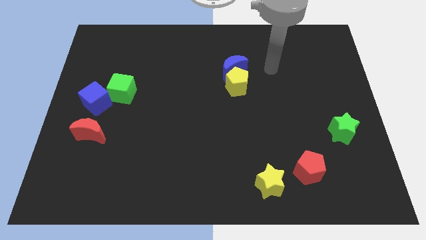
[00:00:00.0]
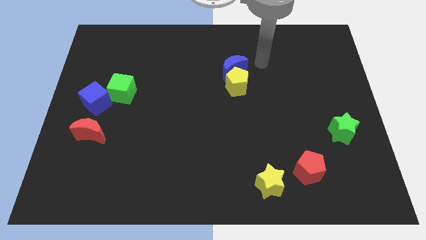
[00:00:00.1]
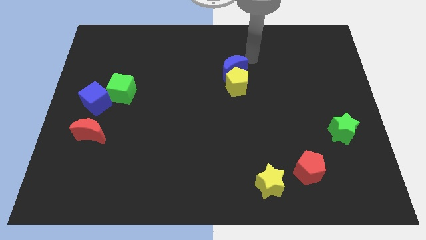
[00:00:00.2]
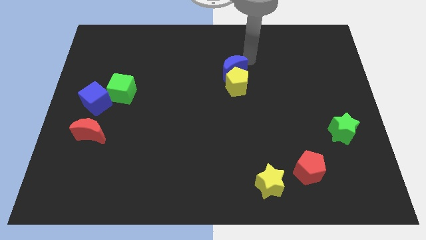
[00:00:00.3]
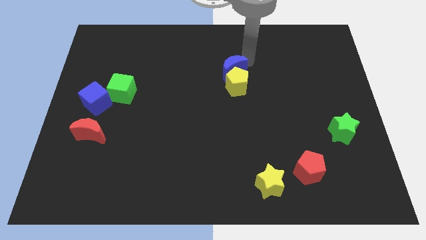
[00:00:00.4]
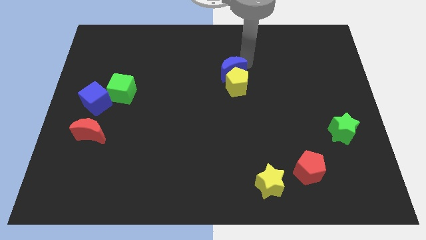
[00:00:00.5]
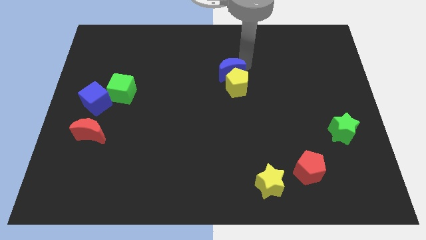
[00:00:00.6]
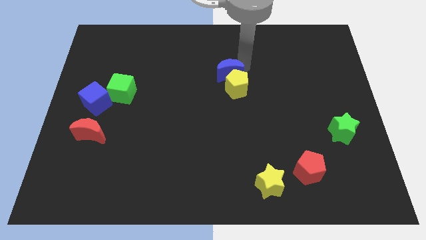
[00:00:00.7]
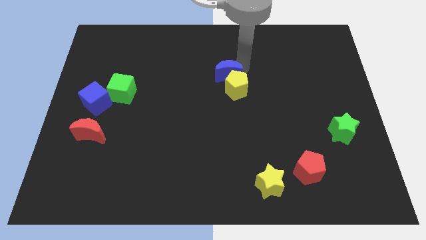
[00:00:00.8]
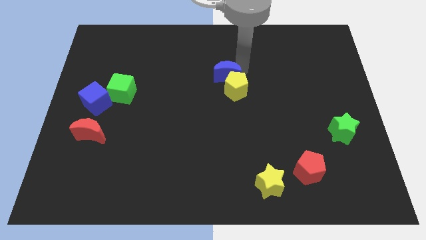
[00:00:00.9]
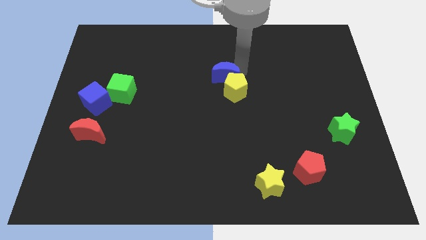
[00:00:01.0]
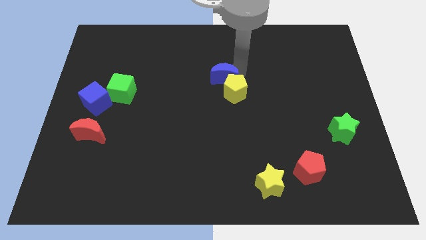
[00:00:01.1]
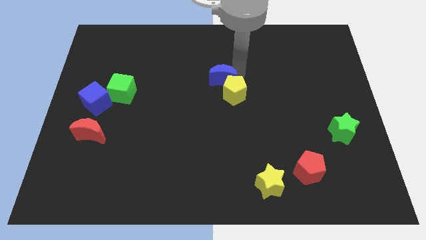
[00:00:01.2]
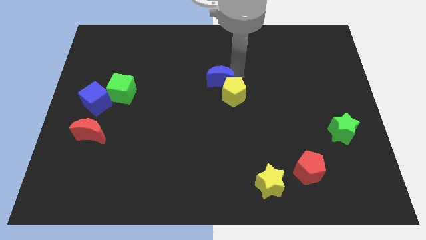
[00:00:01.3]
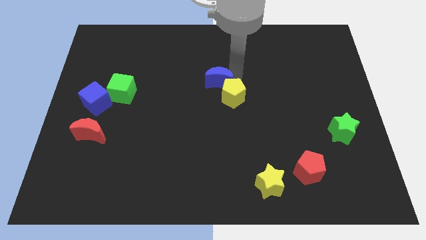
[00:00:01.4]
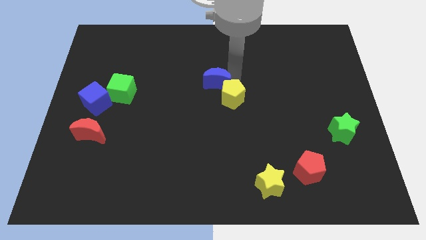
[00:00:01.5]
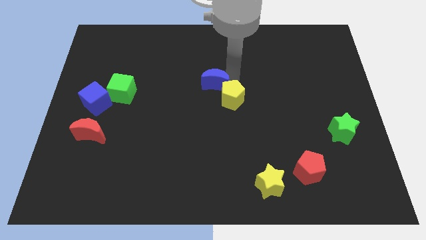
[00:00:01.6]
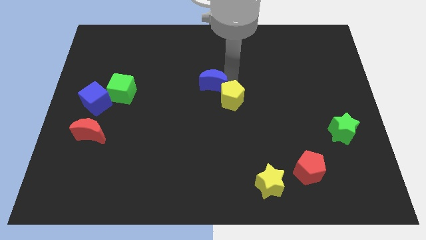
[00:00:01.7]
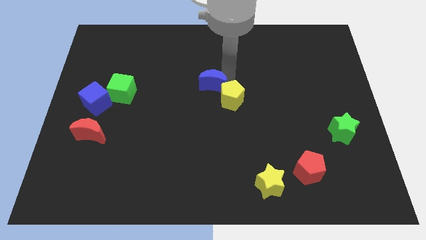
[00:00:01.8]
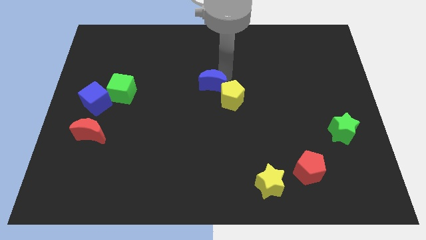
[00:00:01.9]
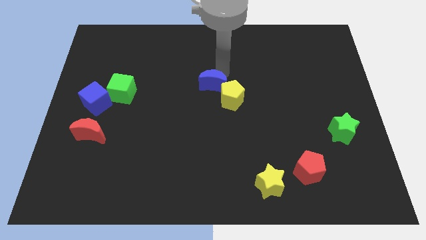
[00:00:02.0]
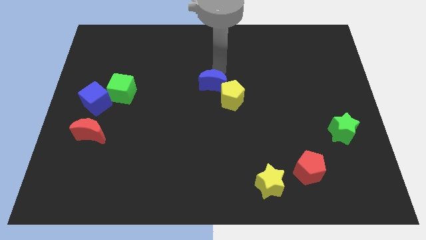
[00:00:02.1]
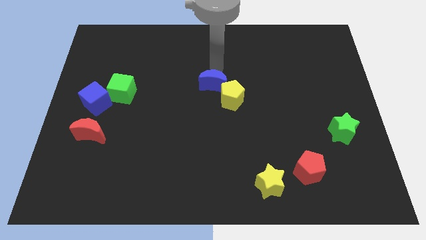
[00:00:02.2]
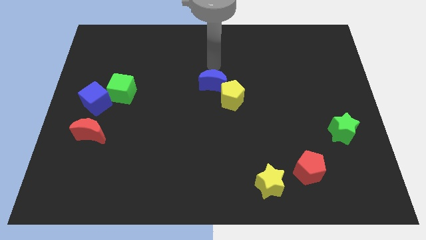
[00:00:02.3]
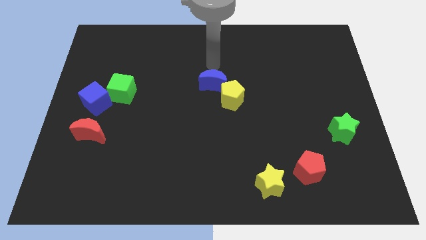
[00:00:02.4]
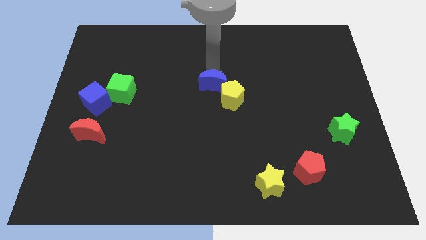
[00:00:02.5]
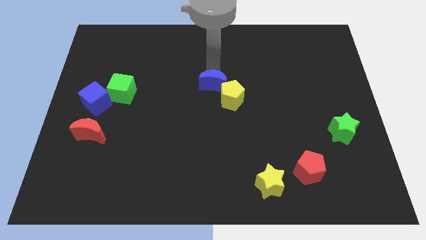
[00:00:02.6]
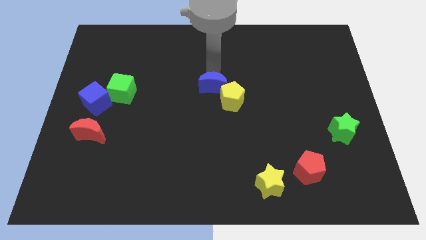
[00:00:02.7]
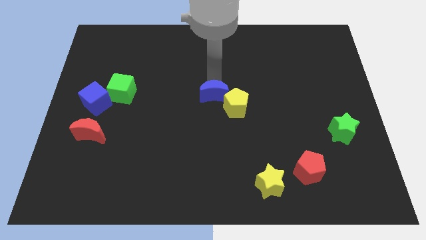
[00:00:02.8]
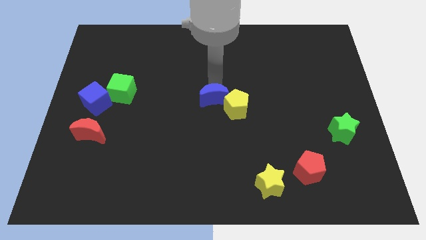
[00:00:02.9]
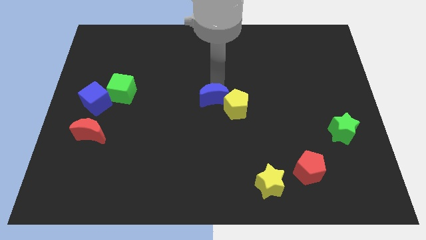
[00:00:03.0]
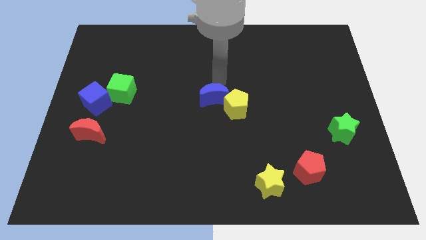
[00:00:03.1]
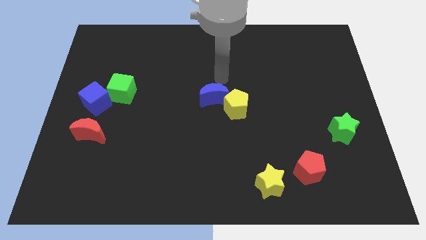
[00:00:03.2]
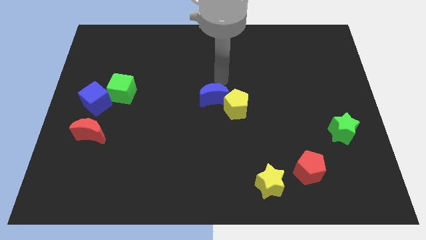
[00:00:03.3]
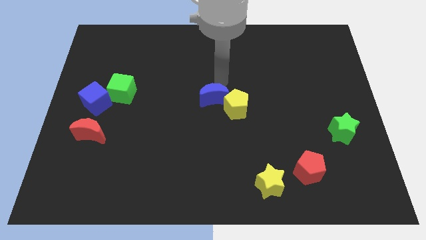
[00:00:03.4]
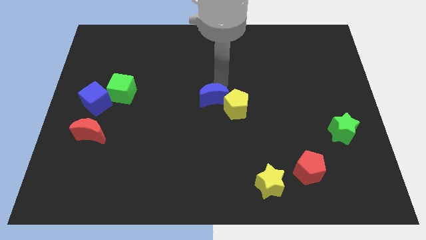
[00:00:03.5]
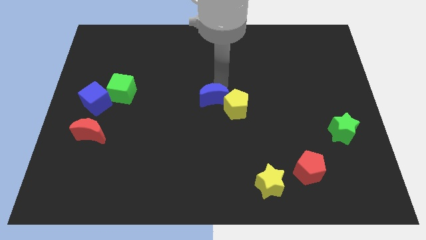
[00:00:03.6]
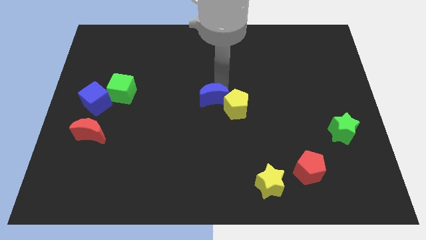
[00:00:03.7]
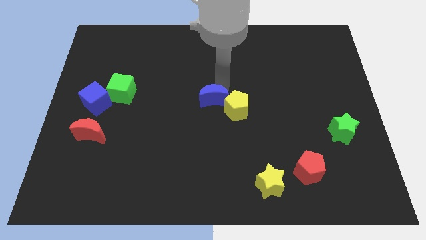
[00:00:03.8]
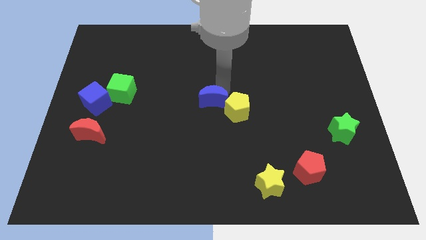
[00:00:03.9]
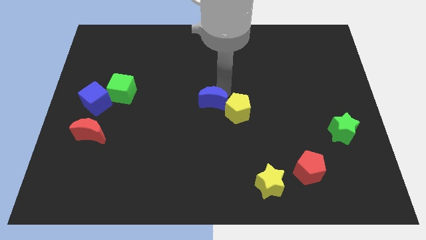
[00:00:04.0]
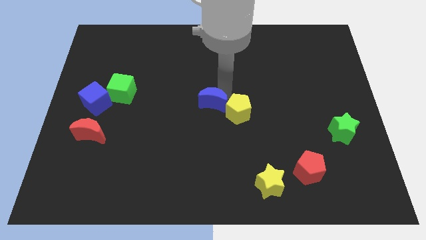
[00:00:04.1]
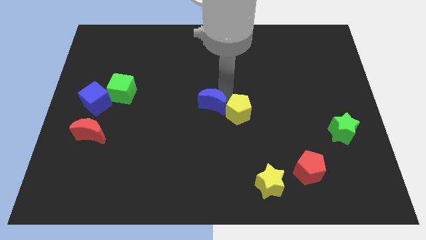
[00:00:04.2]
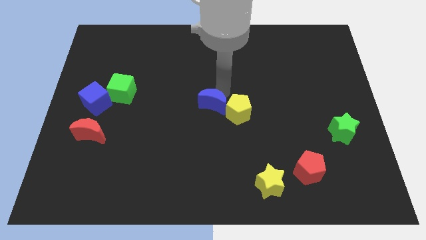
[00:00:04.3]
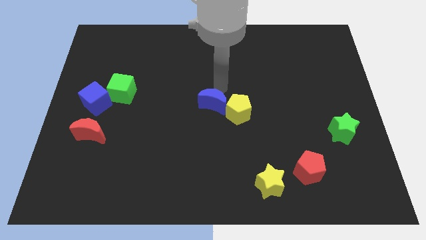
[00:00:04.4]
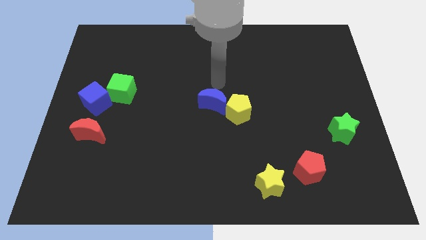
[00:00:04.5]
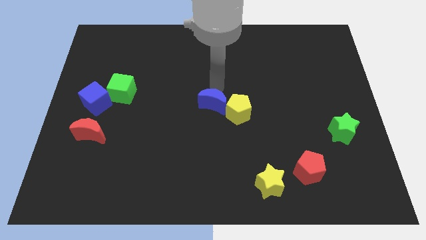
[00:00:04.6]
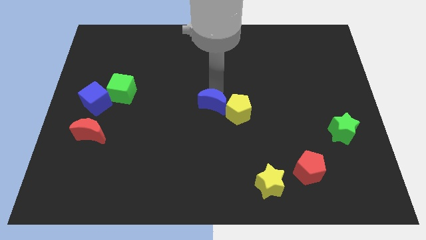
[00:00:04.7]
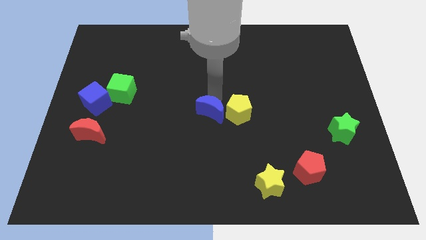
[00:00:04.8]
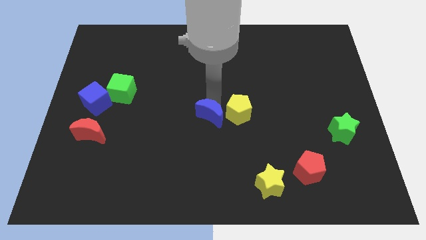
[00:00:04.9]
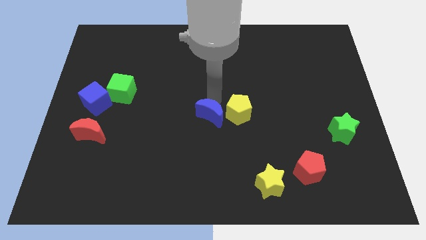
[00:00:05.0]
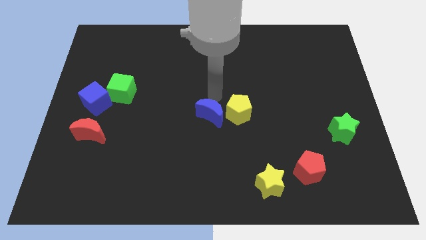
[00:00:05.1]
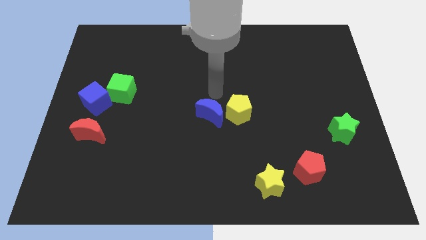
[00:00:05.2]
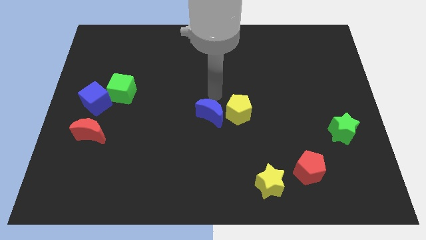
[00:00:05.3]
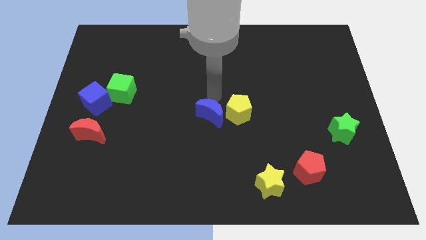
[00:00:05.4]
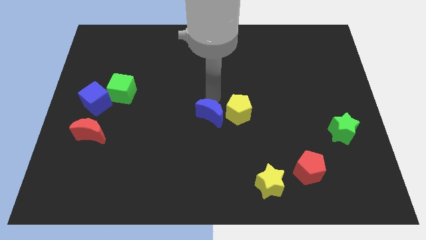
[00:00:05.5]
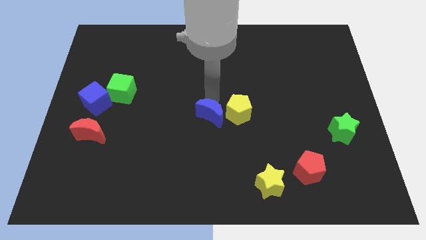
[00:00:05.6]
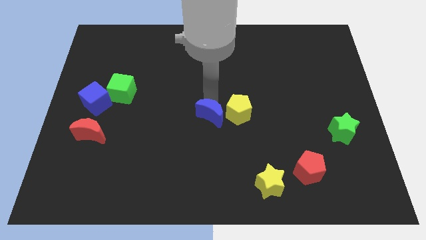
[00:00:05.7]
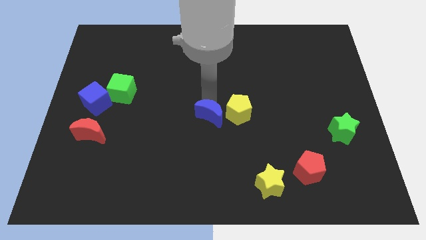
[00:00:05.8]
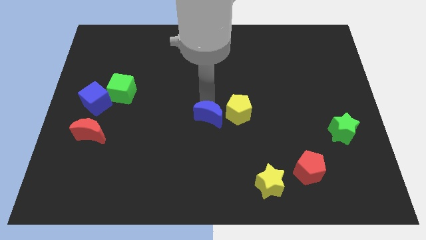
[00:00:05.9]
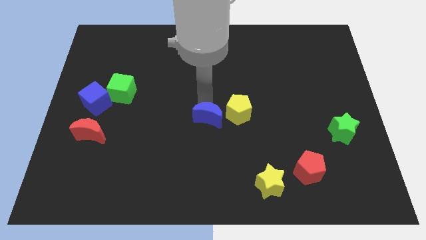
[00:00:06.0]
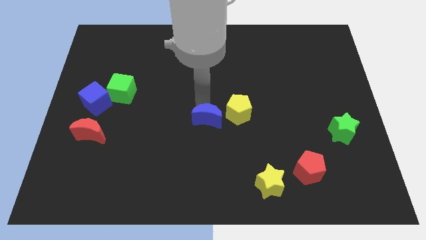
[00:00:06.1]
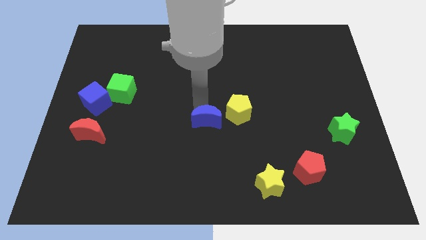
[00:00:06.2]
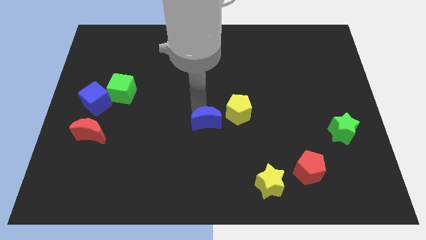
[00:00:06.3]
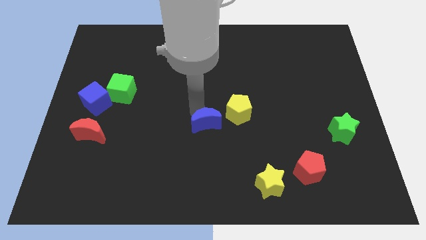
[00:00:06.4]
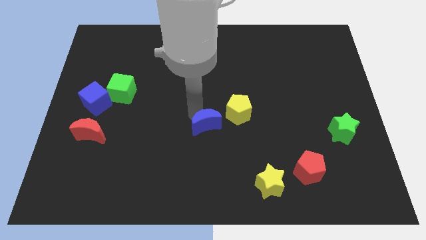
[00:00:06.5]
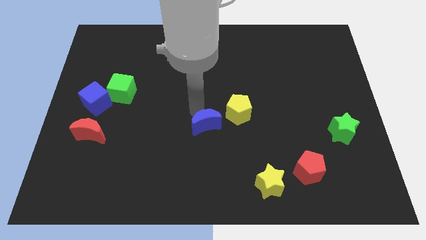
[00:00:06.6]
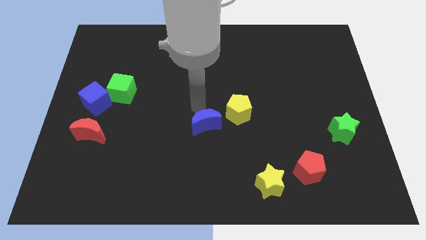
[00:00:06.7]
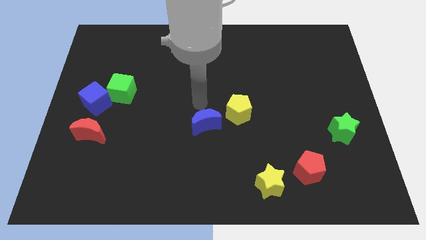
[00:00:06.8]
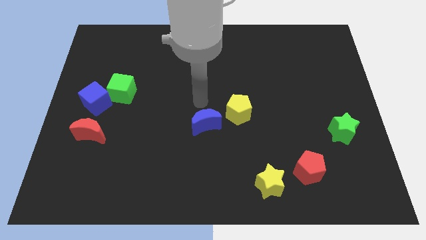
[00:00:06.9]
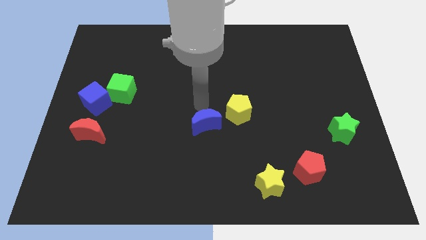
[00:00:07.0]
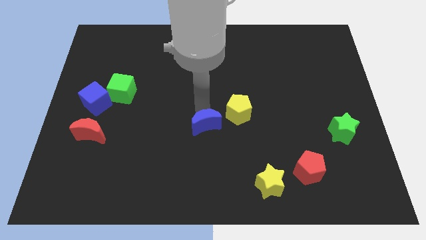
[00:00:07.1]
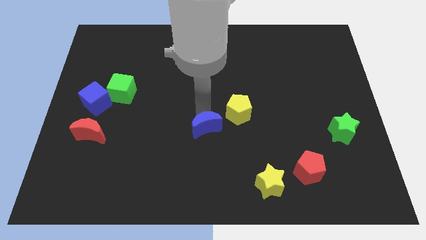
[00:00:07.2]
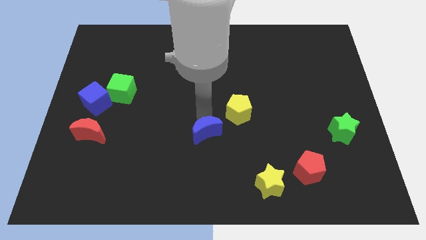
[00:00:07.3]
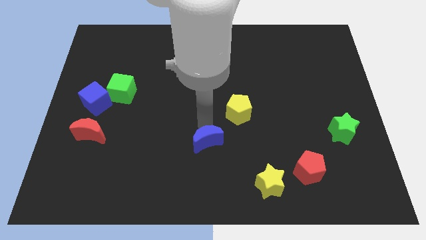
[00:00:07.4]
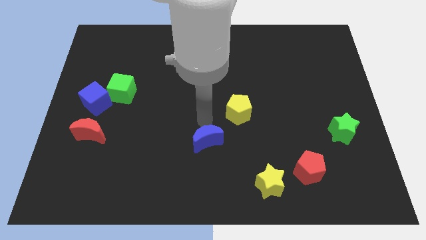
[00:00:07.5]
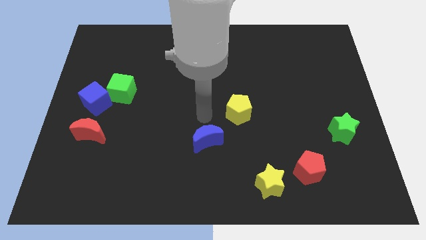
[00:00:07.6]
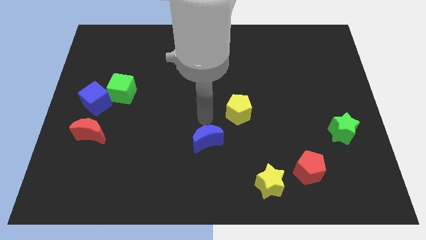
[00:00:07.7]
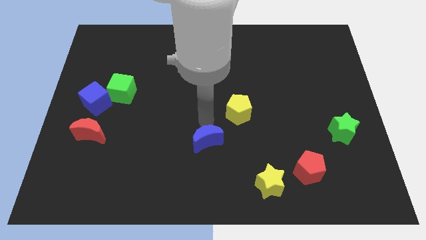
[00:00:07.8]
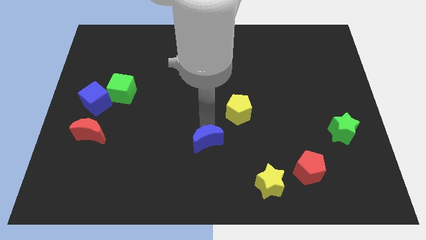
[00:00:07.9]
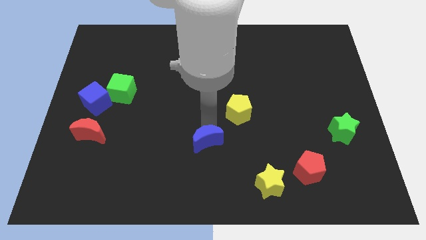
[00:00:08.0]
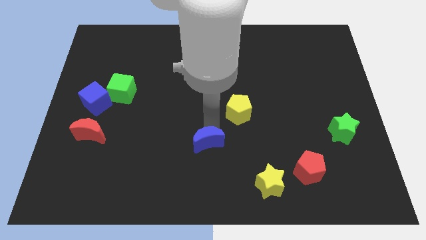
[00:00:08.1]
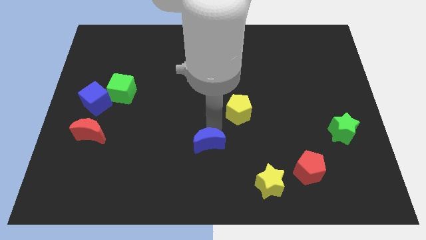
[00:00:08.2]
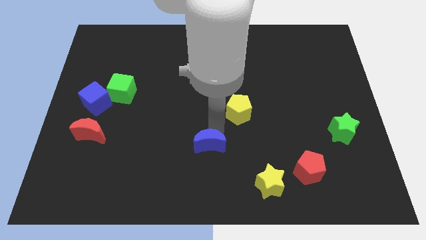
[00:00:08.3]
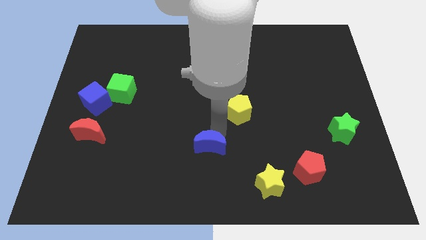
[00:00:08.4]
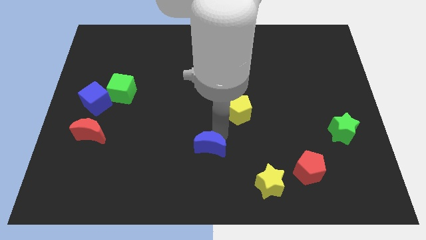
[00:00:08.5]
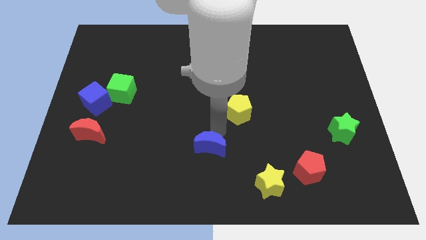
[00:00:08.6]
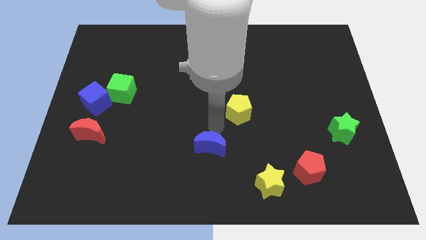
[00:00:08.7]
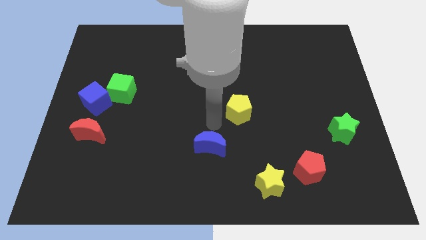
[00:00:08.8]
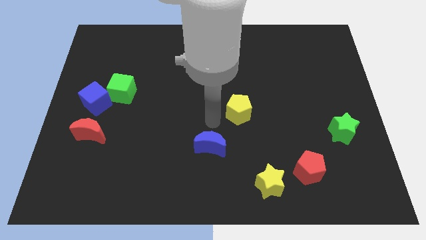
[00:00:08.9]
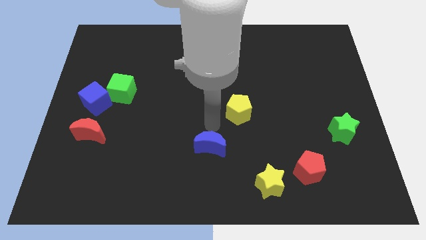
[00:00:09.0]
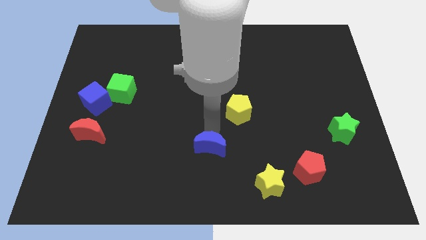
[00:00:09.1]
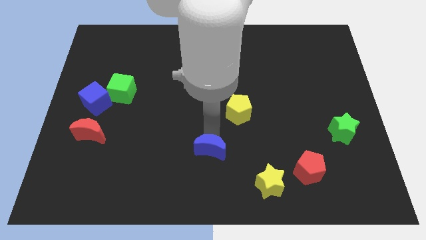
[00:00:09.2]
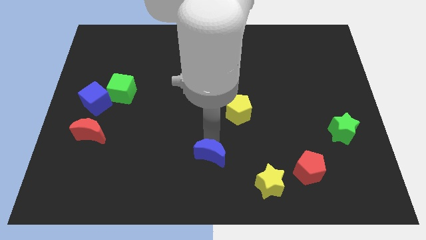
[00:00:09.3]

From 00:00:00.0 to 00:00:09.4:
slide the blue moon to the bottom
